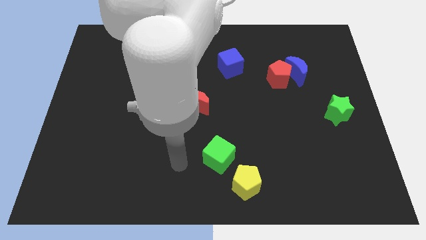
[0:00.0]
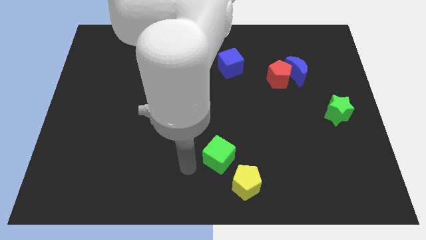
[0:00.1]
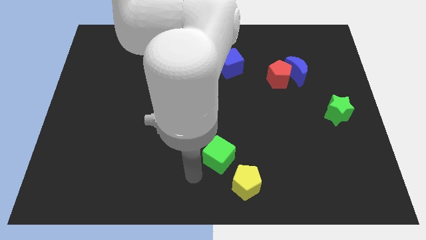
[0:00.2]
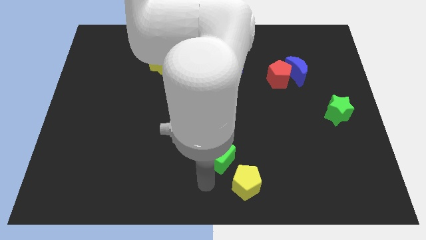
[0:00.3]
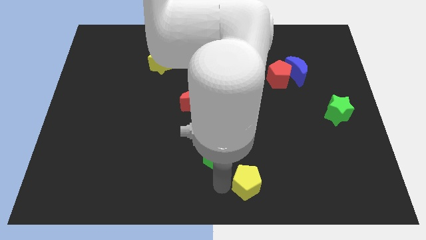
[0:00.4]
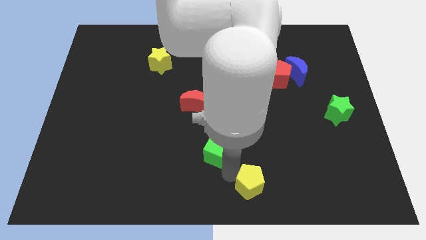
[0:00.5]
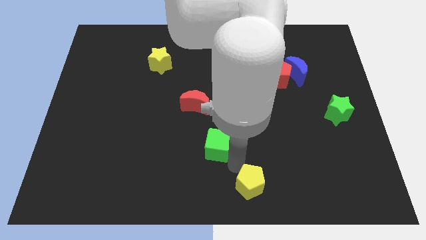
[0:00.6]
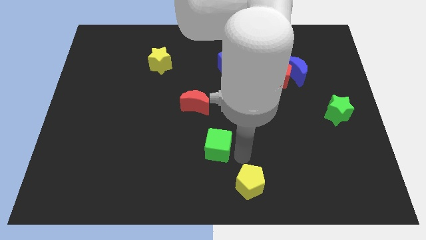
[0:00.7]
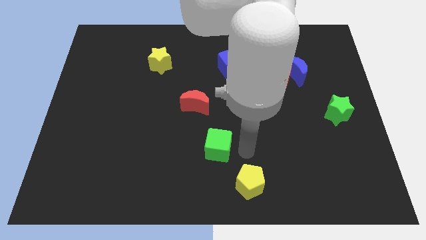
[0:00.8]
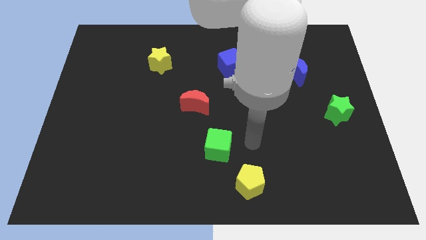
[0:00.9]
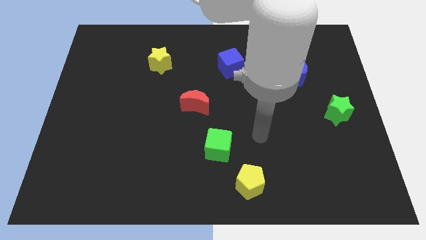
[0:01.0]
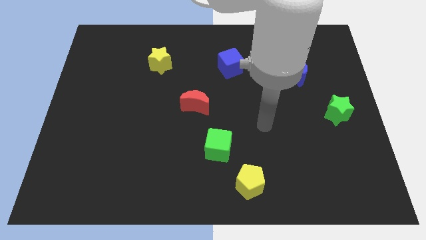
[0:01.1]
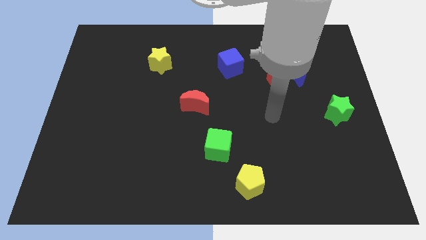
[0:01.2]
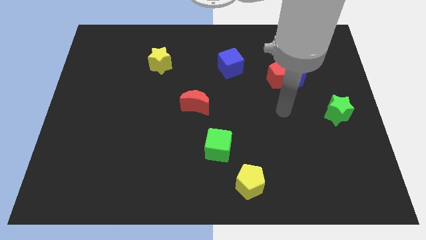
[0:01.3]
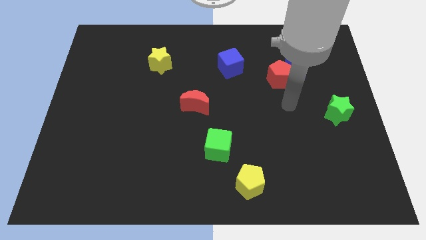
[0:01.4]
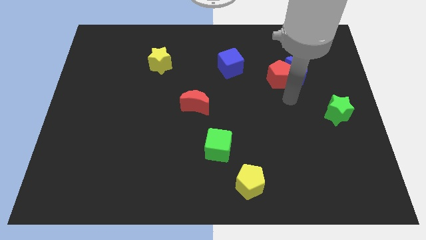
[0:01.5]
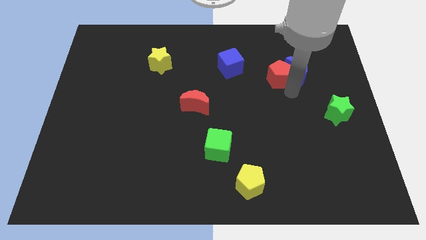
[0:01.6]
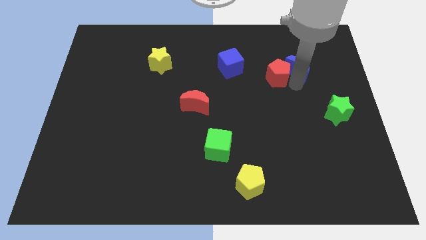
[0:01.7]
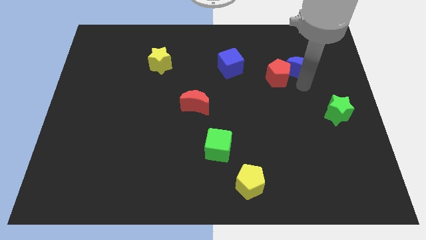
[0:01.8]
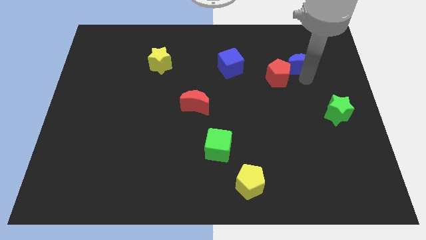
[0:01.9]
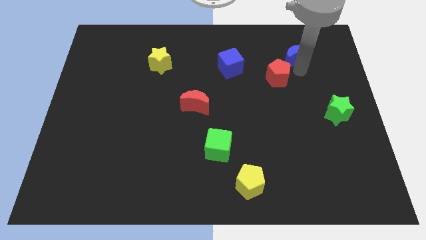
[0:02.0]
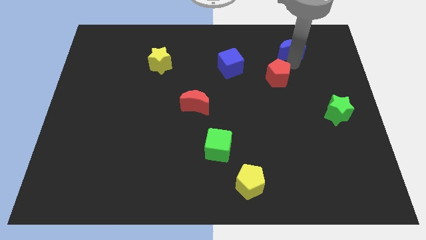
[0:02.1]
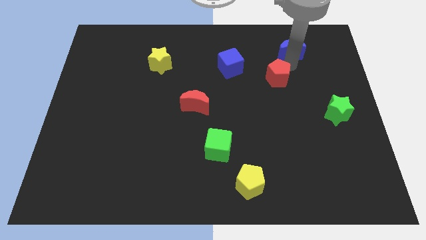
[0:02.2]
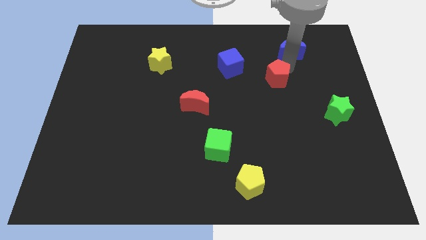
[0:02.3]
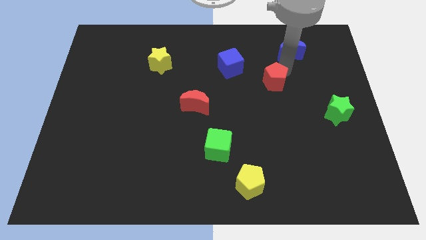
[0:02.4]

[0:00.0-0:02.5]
move the red pentagon away from the blue moon

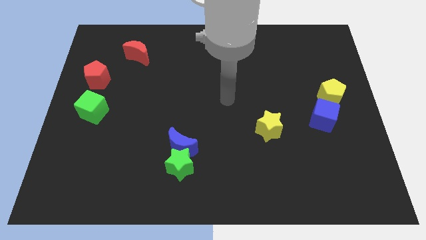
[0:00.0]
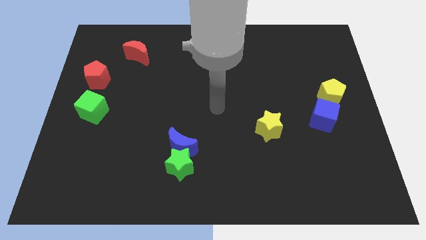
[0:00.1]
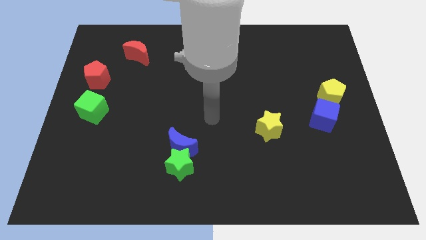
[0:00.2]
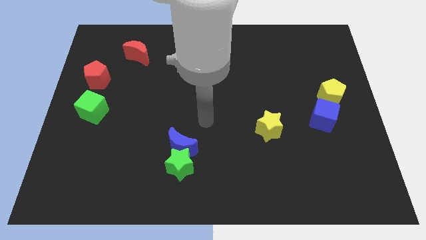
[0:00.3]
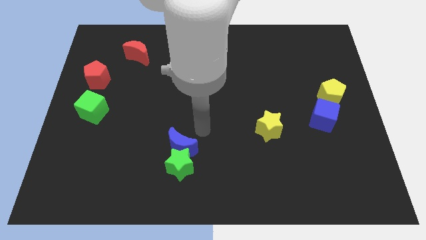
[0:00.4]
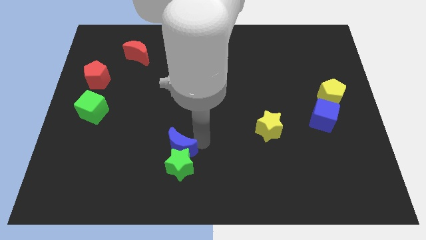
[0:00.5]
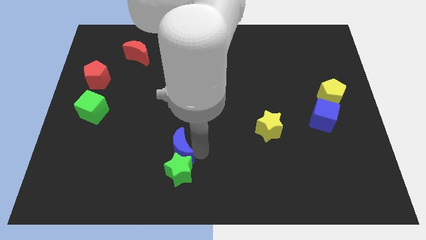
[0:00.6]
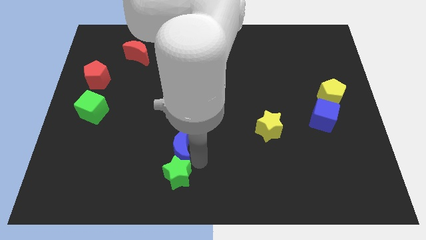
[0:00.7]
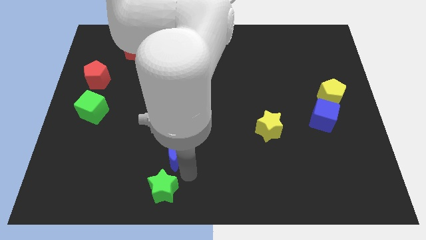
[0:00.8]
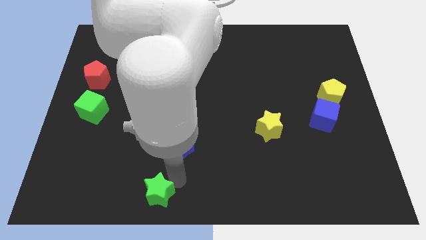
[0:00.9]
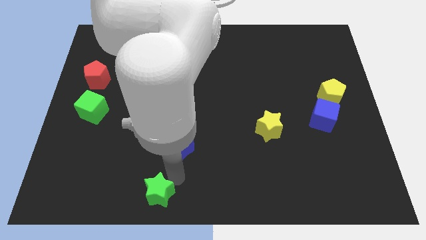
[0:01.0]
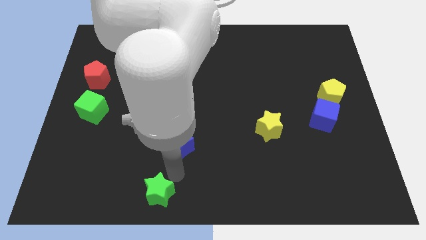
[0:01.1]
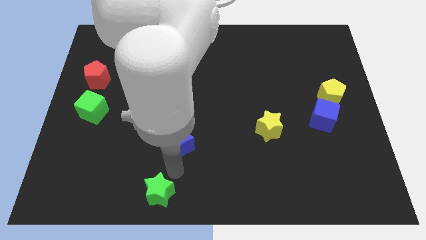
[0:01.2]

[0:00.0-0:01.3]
separate the blue moon from the green star

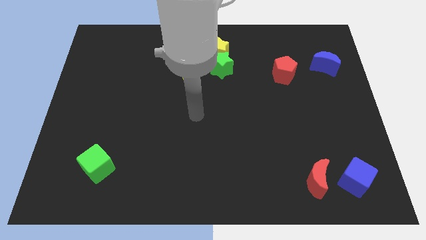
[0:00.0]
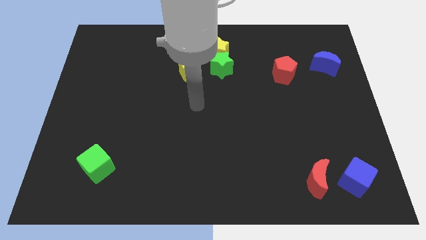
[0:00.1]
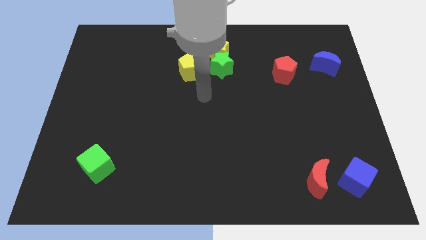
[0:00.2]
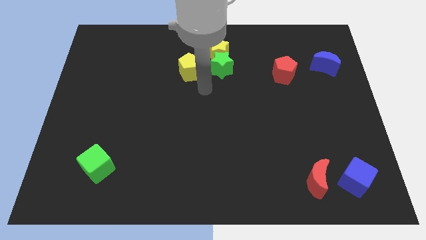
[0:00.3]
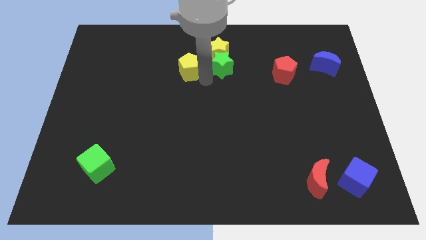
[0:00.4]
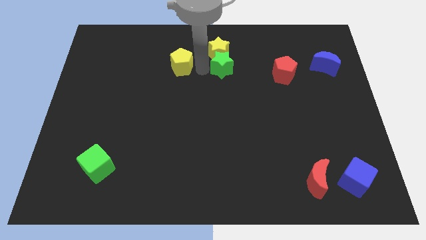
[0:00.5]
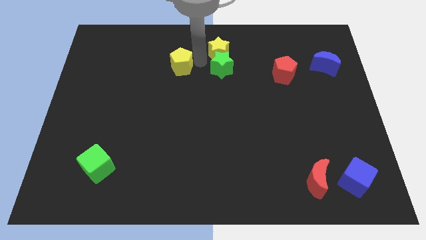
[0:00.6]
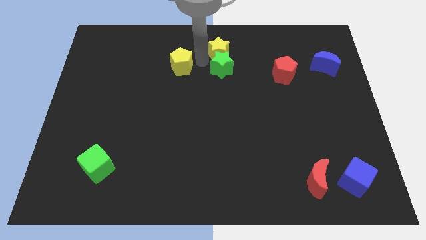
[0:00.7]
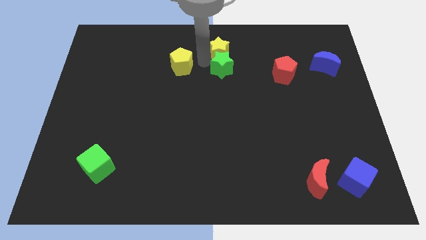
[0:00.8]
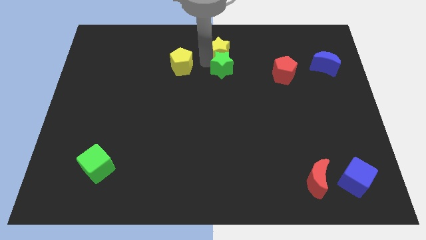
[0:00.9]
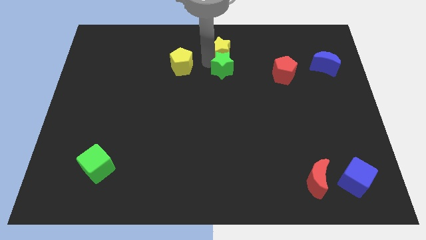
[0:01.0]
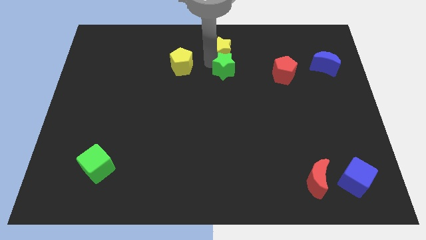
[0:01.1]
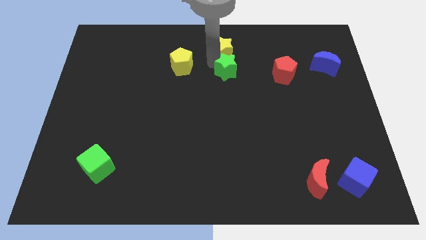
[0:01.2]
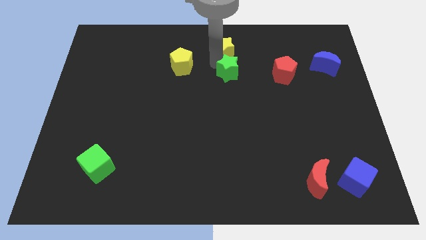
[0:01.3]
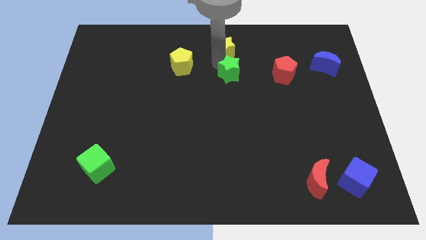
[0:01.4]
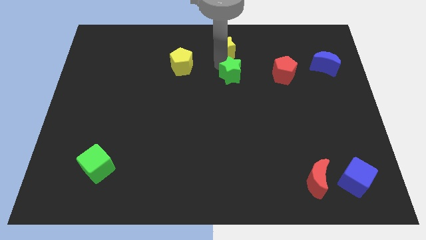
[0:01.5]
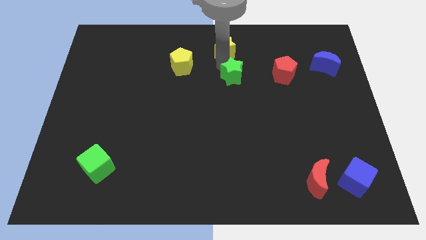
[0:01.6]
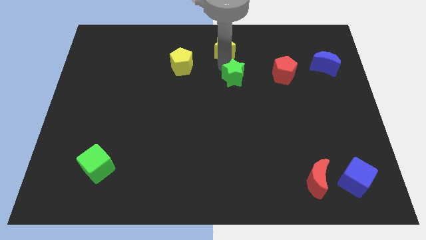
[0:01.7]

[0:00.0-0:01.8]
separate the green star from the yellow star and yellow pentagon

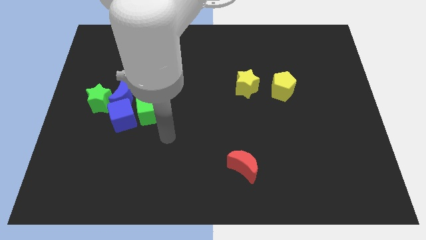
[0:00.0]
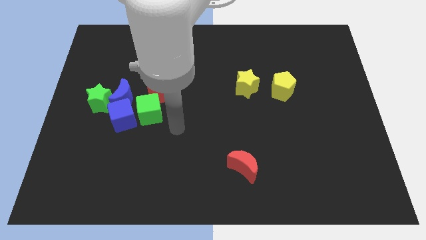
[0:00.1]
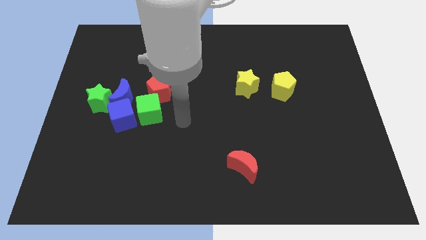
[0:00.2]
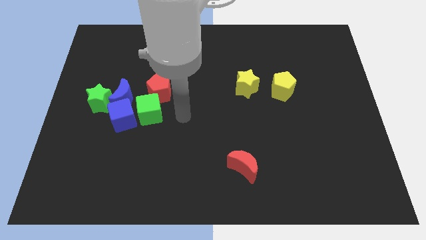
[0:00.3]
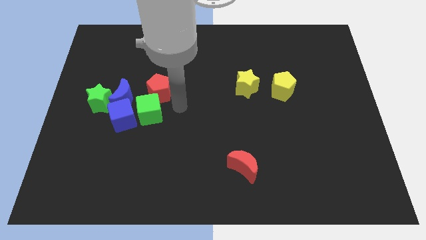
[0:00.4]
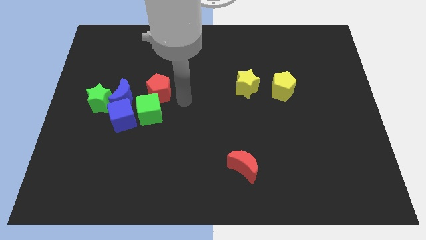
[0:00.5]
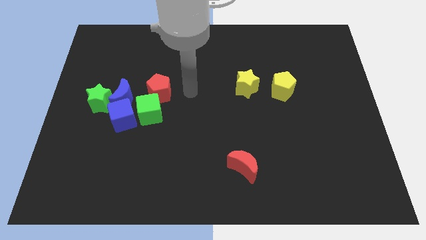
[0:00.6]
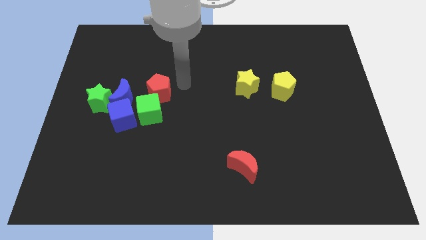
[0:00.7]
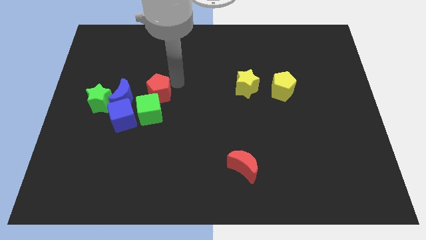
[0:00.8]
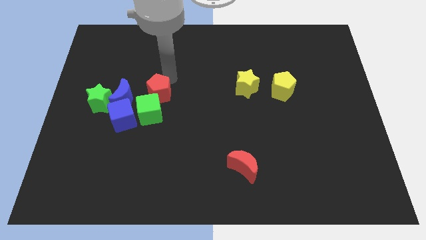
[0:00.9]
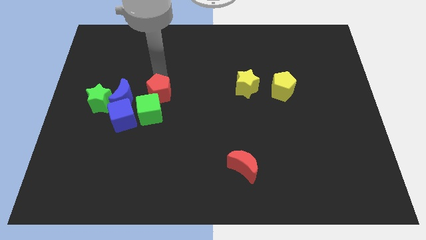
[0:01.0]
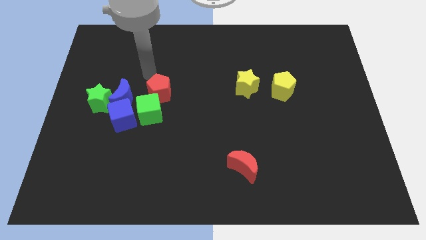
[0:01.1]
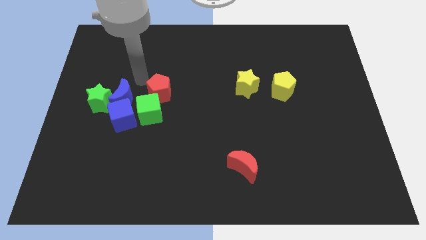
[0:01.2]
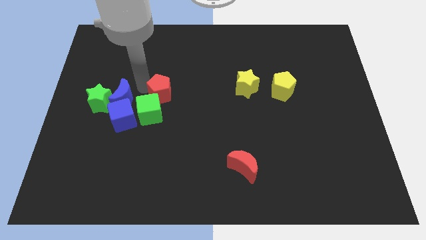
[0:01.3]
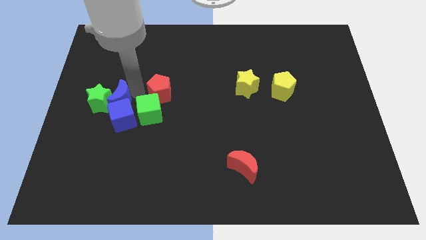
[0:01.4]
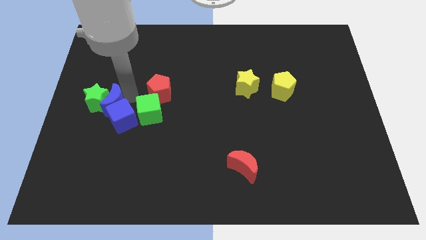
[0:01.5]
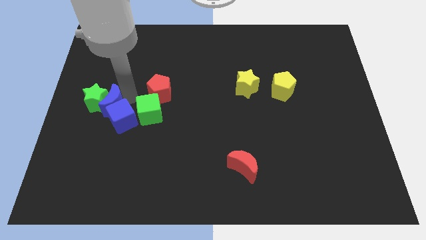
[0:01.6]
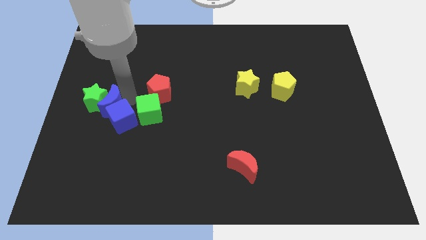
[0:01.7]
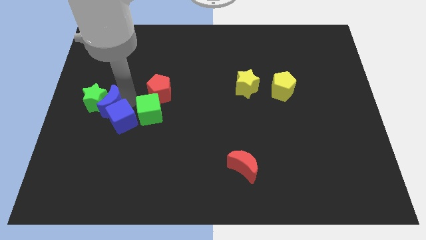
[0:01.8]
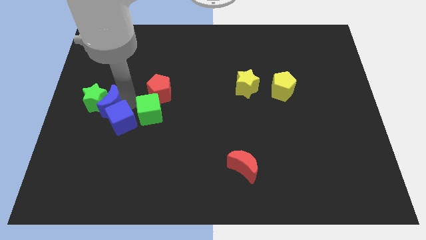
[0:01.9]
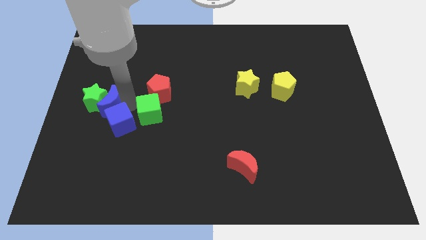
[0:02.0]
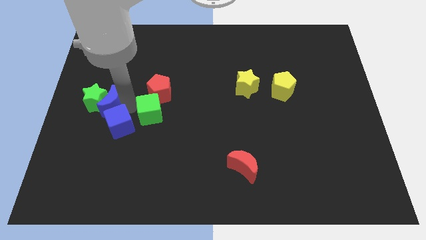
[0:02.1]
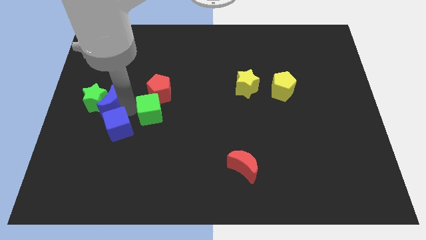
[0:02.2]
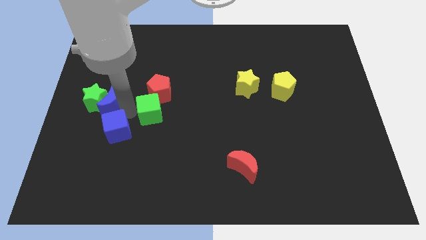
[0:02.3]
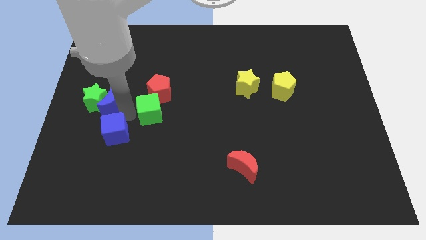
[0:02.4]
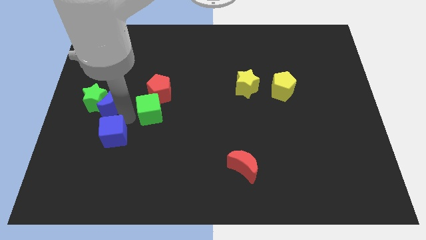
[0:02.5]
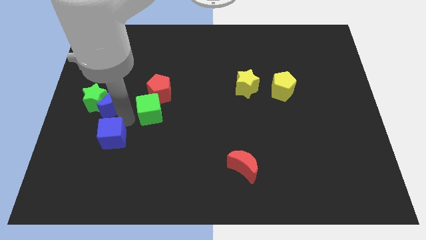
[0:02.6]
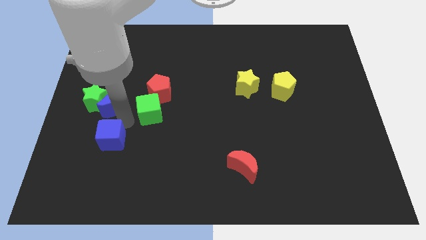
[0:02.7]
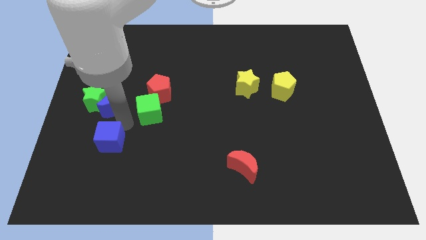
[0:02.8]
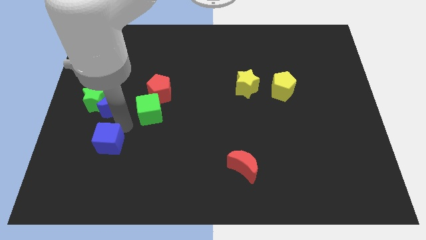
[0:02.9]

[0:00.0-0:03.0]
move the blue cube away from the group of blocks

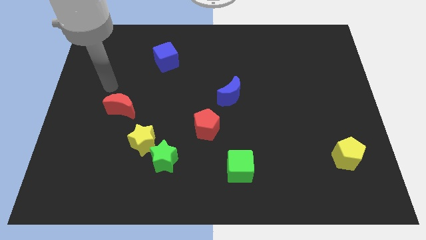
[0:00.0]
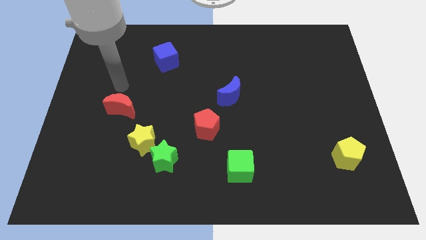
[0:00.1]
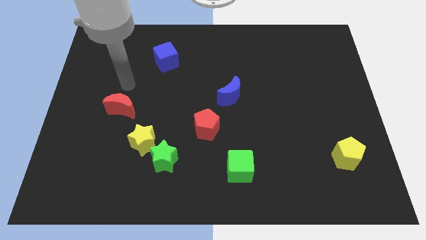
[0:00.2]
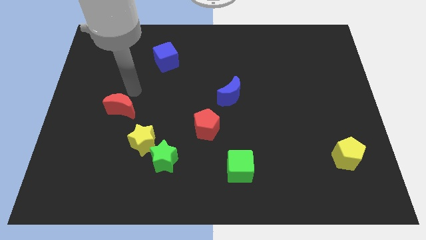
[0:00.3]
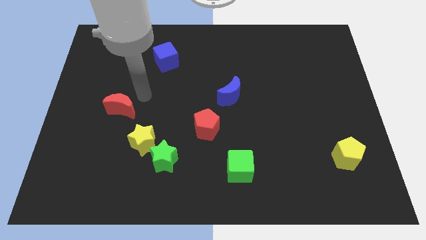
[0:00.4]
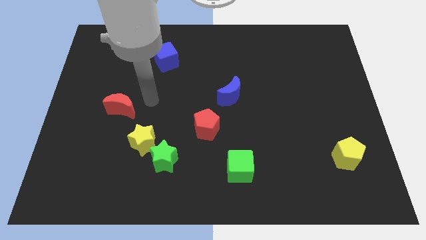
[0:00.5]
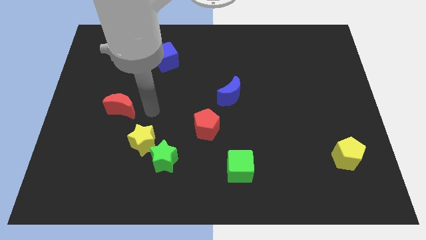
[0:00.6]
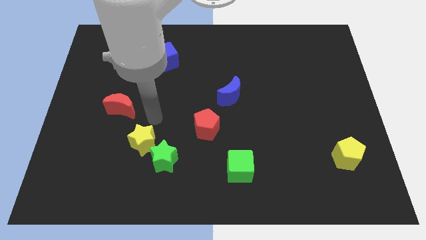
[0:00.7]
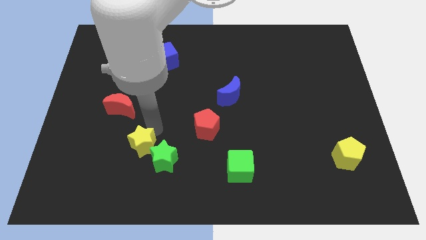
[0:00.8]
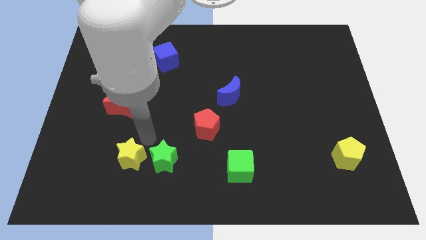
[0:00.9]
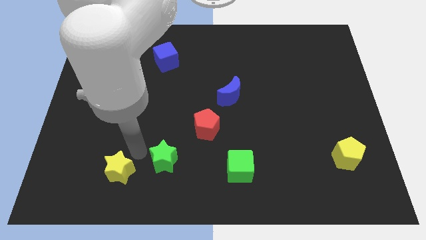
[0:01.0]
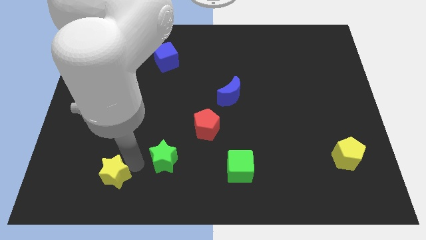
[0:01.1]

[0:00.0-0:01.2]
move the green star away from the yellow star
